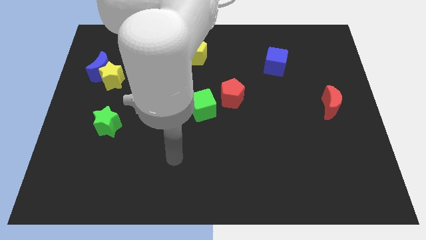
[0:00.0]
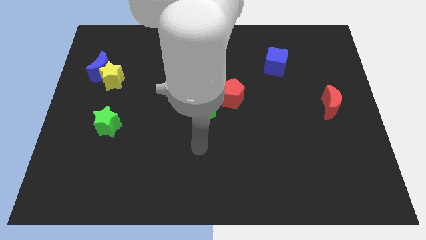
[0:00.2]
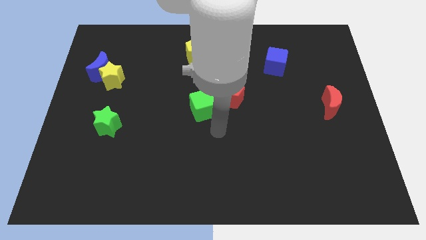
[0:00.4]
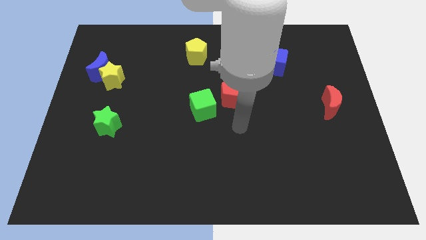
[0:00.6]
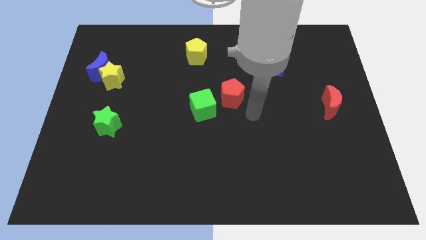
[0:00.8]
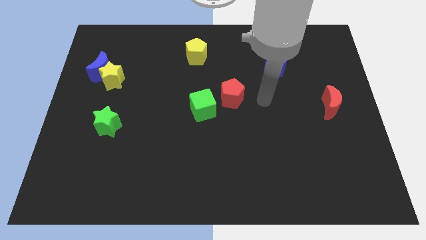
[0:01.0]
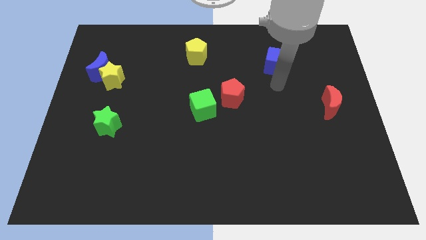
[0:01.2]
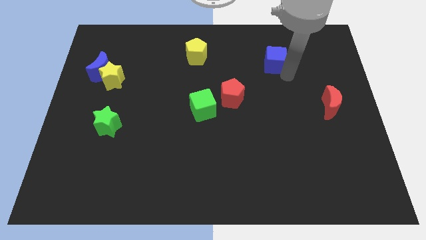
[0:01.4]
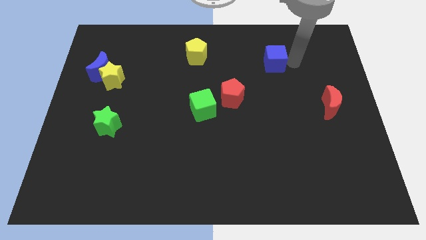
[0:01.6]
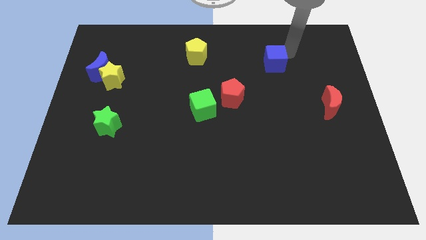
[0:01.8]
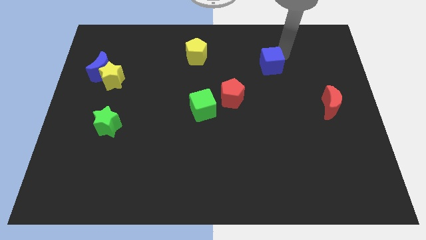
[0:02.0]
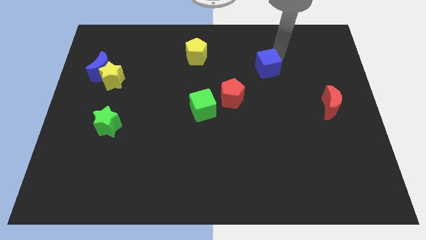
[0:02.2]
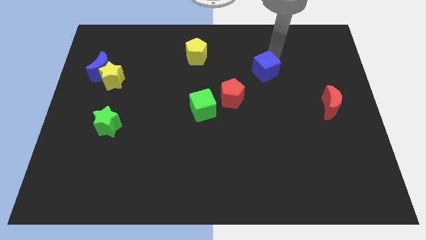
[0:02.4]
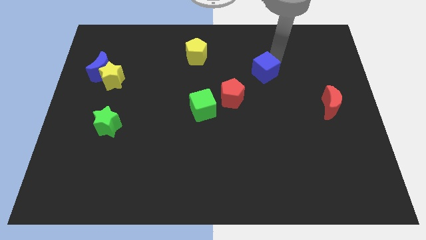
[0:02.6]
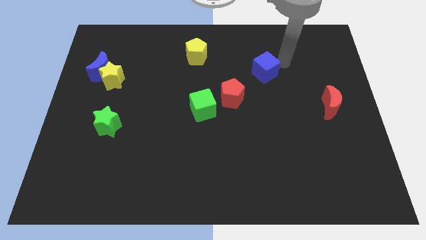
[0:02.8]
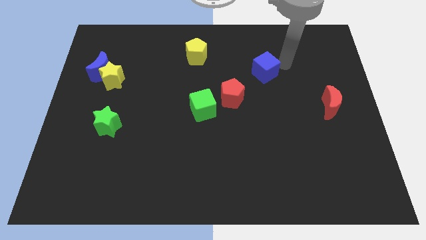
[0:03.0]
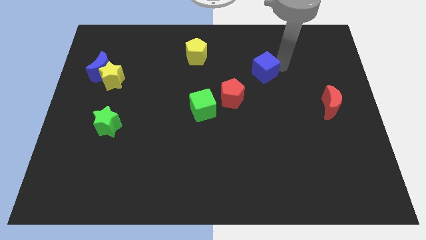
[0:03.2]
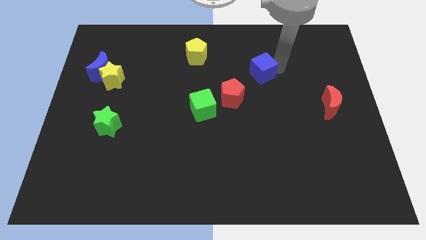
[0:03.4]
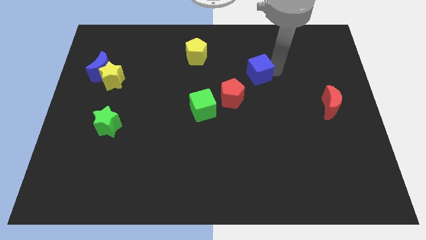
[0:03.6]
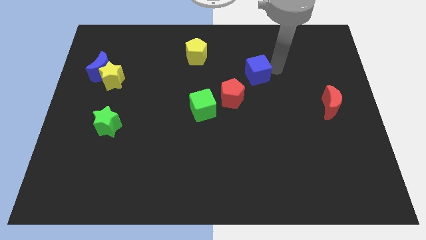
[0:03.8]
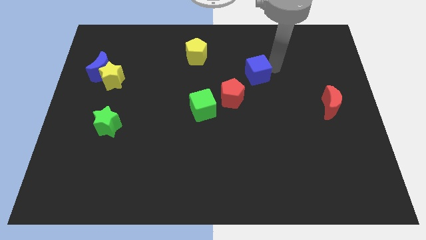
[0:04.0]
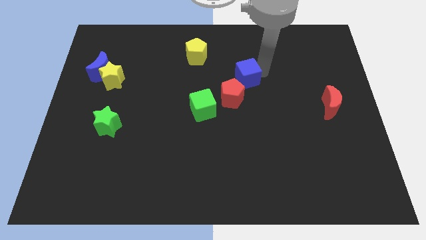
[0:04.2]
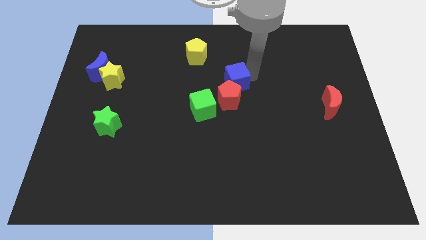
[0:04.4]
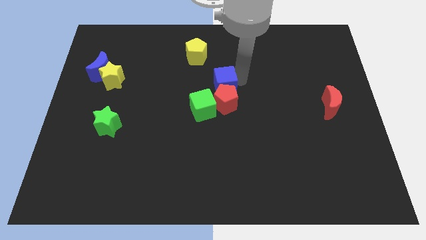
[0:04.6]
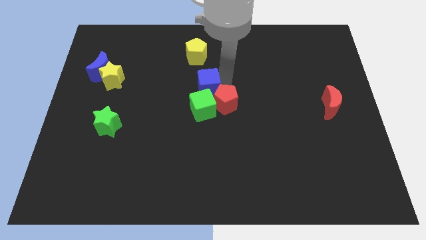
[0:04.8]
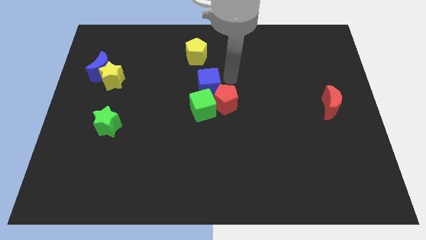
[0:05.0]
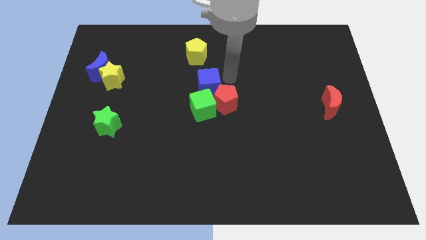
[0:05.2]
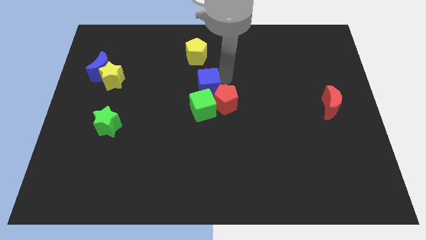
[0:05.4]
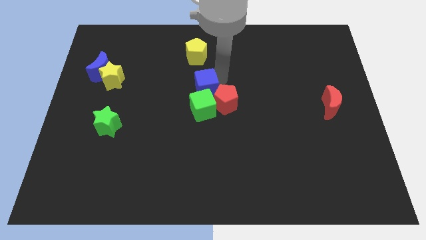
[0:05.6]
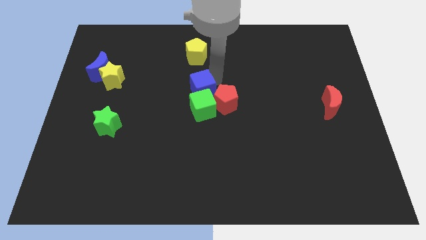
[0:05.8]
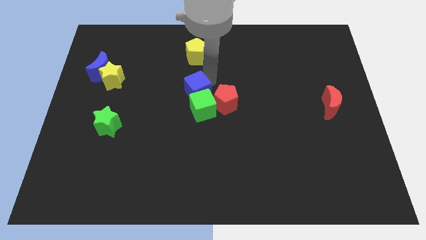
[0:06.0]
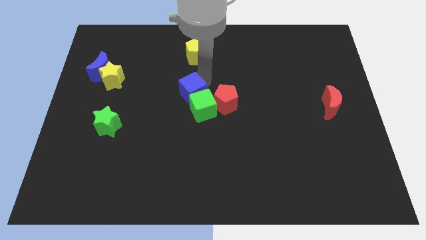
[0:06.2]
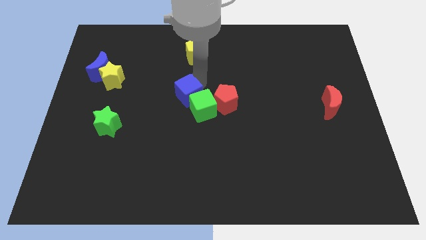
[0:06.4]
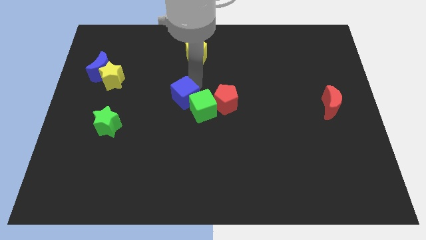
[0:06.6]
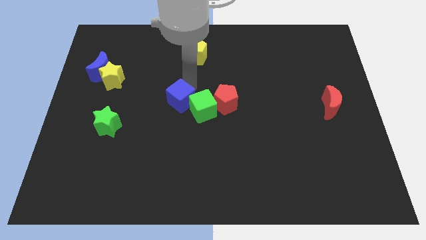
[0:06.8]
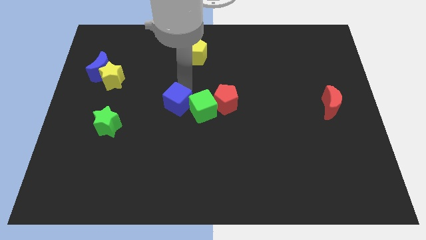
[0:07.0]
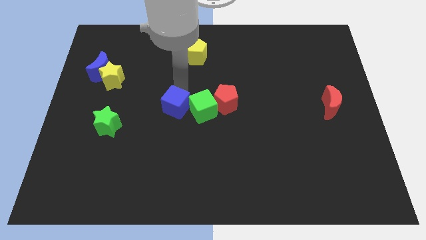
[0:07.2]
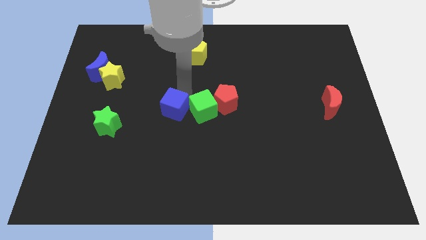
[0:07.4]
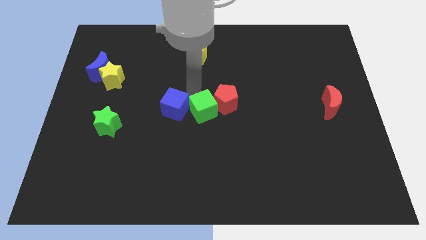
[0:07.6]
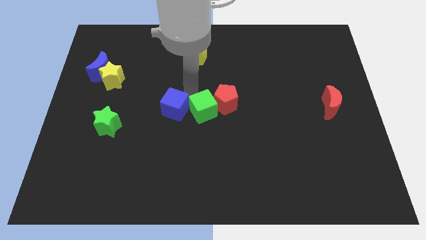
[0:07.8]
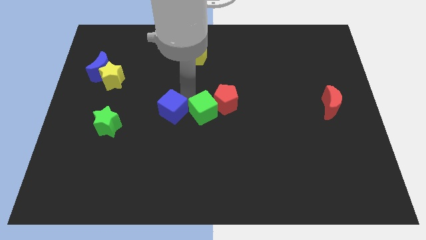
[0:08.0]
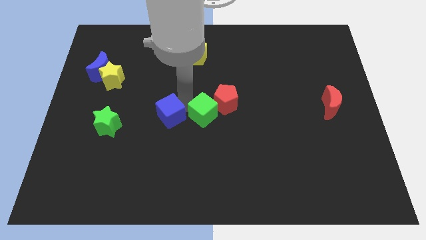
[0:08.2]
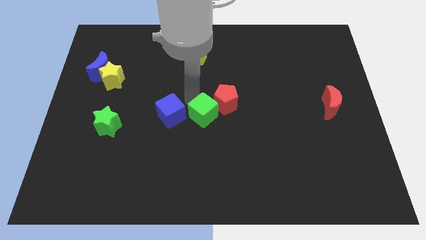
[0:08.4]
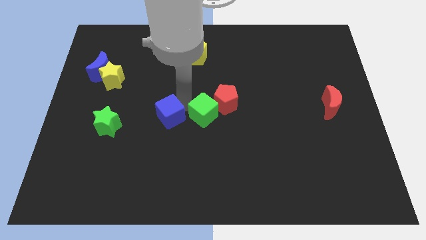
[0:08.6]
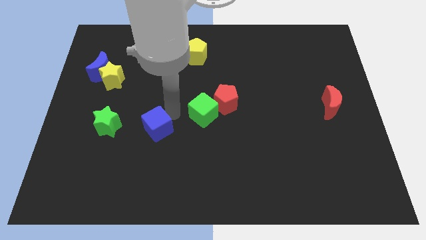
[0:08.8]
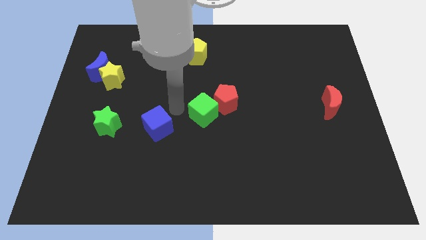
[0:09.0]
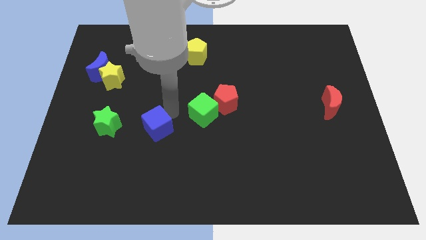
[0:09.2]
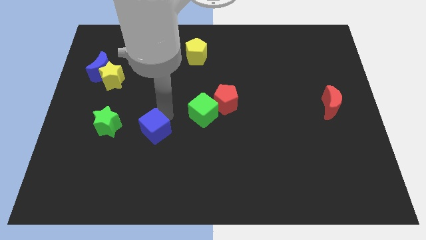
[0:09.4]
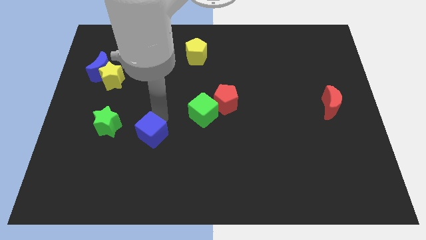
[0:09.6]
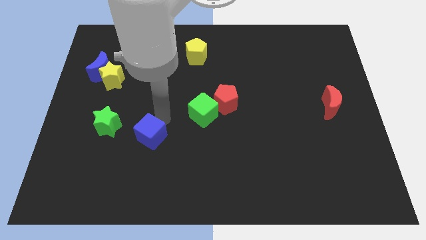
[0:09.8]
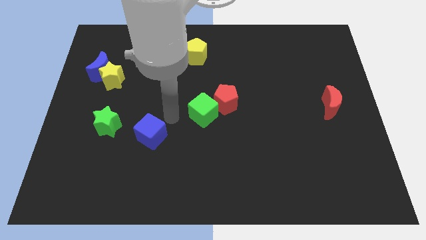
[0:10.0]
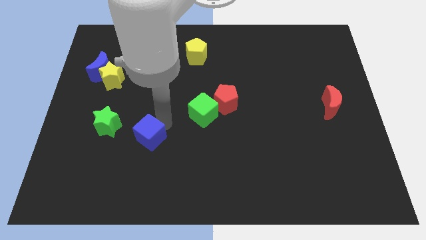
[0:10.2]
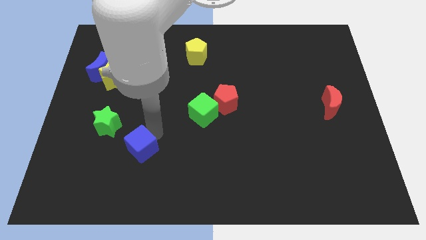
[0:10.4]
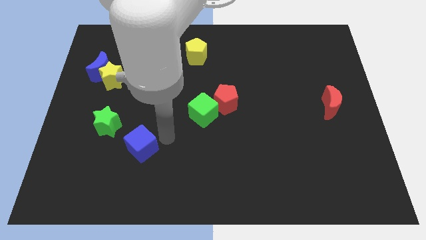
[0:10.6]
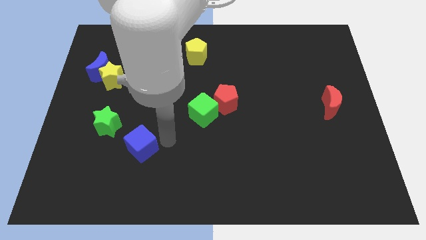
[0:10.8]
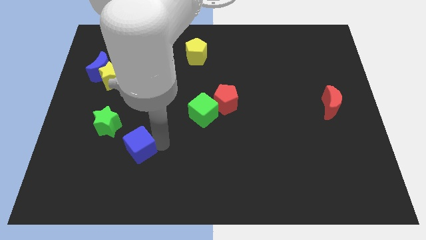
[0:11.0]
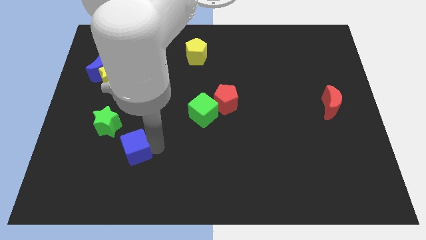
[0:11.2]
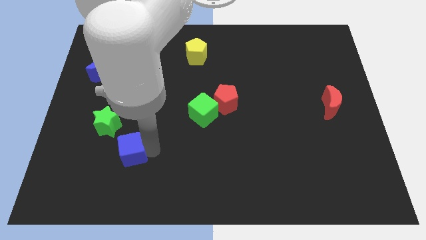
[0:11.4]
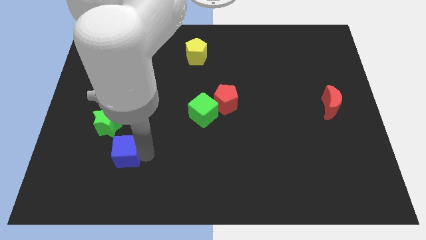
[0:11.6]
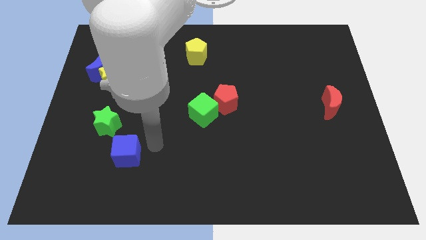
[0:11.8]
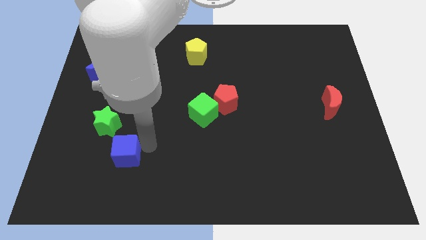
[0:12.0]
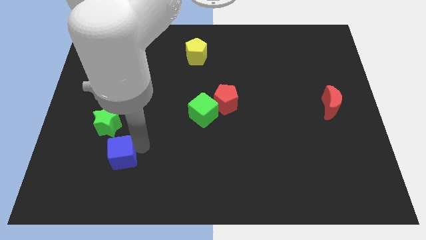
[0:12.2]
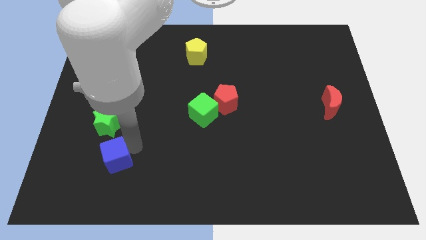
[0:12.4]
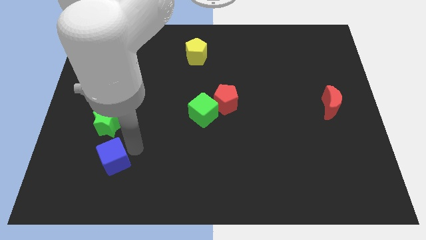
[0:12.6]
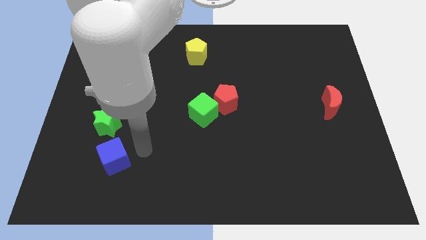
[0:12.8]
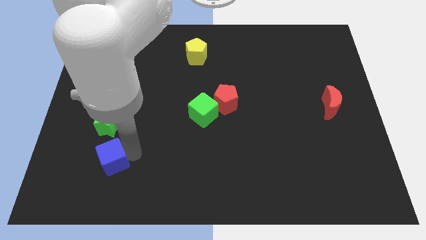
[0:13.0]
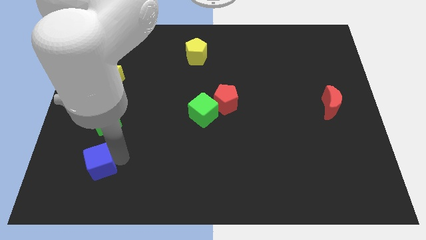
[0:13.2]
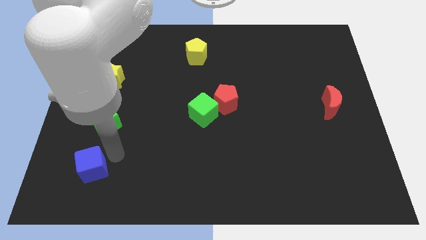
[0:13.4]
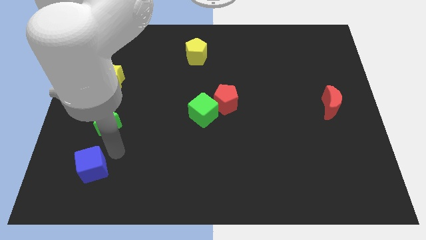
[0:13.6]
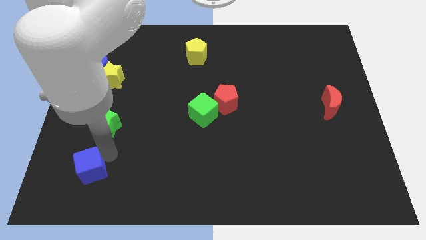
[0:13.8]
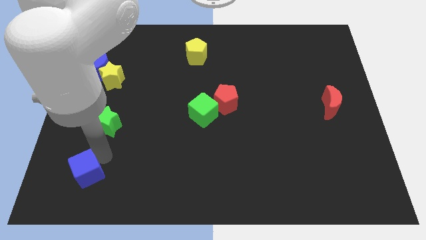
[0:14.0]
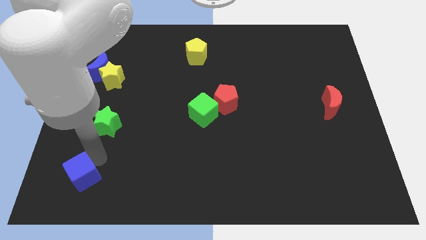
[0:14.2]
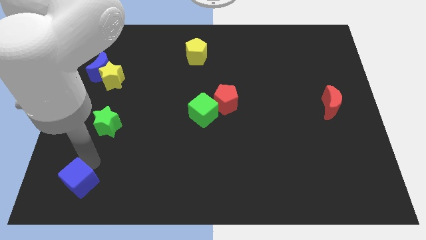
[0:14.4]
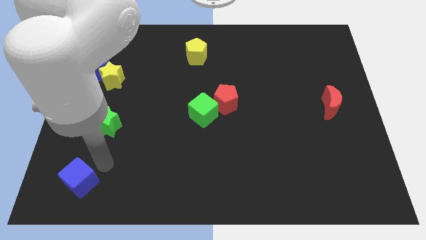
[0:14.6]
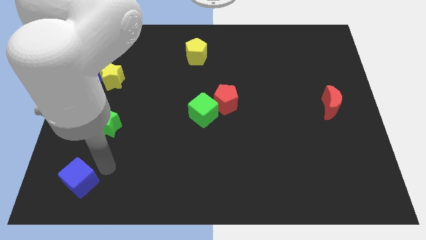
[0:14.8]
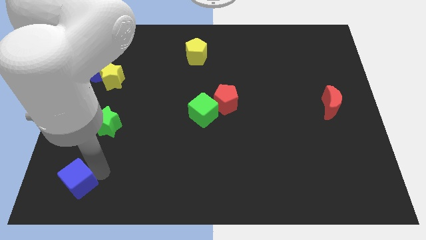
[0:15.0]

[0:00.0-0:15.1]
put the blue cube to the bottom left of the board
